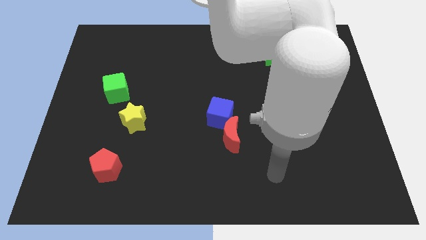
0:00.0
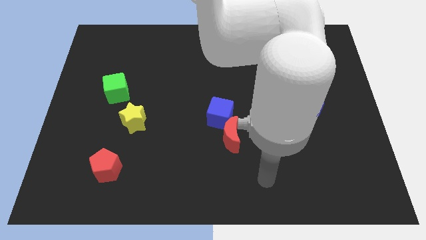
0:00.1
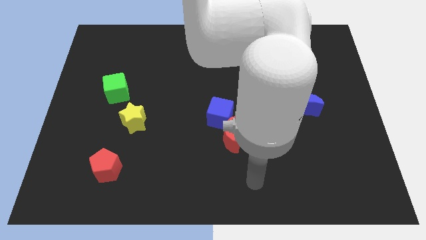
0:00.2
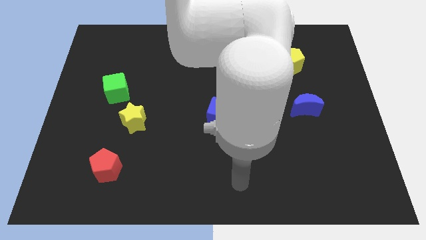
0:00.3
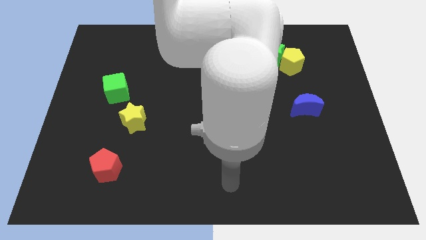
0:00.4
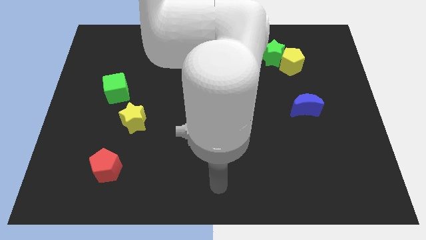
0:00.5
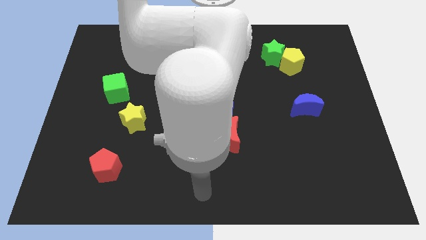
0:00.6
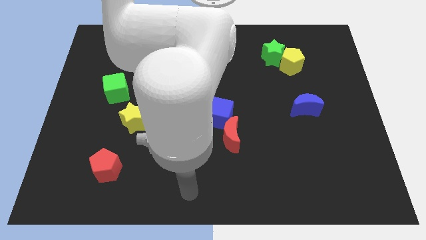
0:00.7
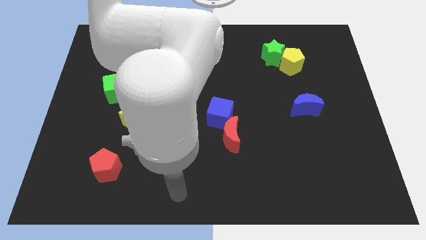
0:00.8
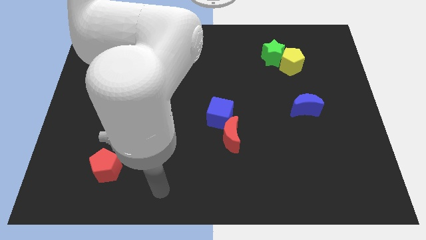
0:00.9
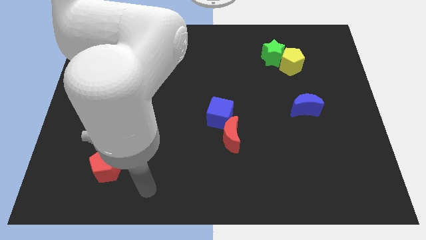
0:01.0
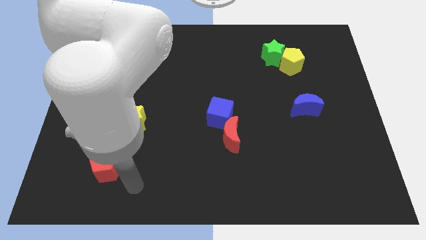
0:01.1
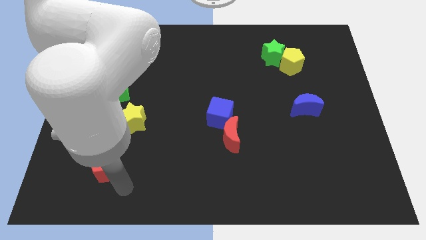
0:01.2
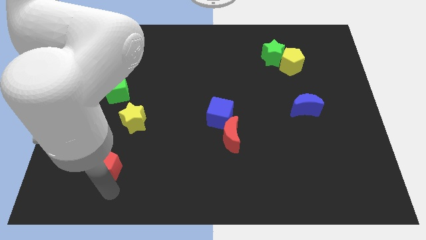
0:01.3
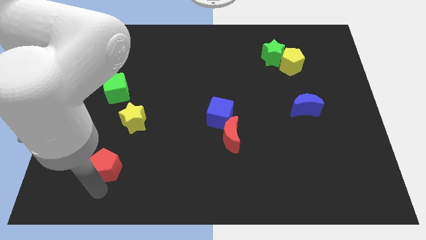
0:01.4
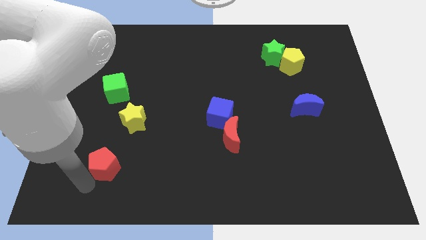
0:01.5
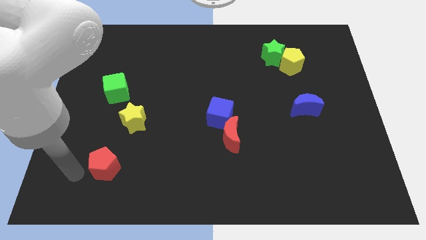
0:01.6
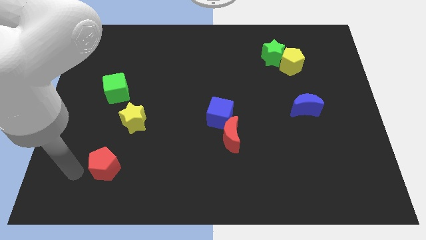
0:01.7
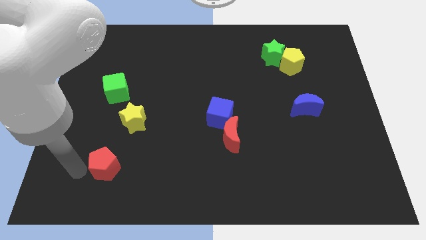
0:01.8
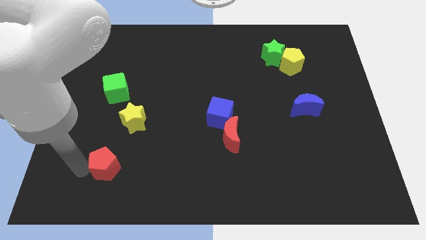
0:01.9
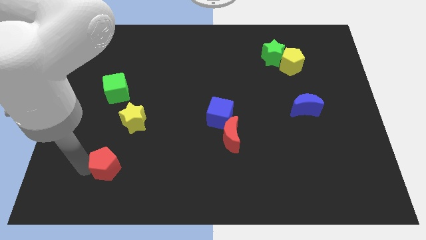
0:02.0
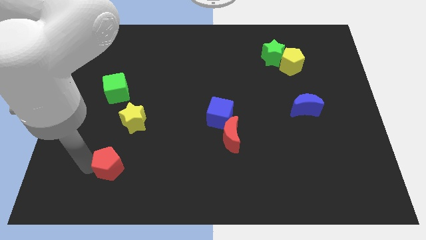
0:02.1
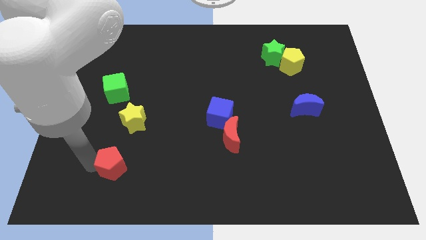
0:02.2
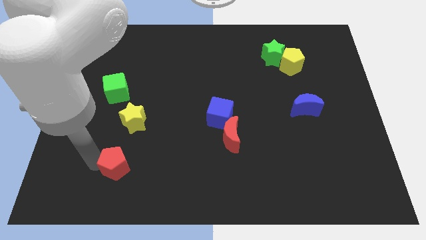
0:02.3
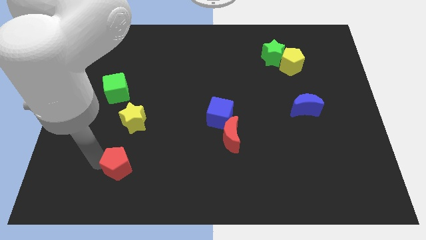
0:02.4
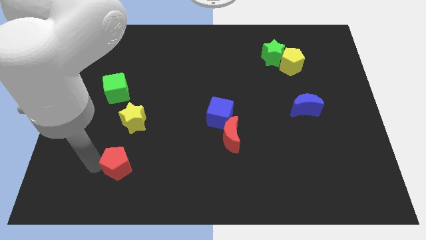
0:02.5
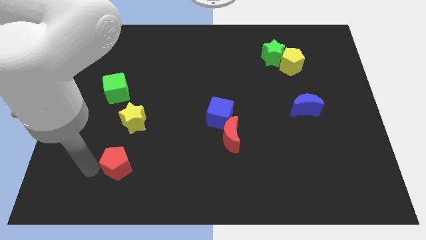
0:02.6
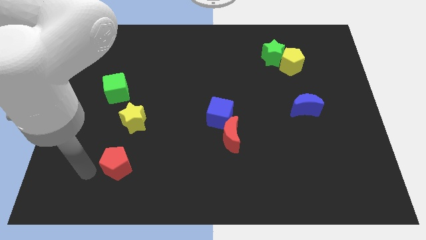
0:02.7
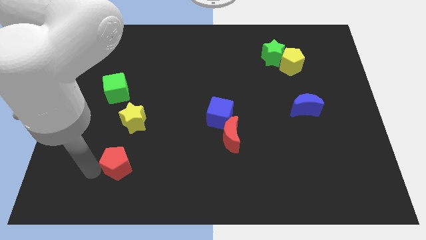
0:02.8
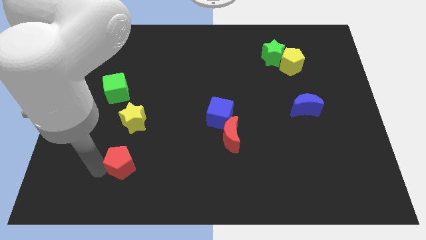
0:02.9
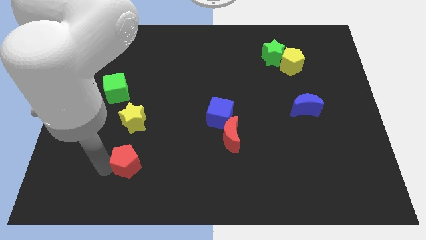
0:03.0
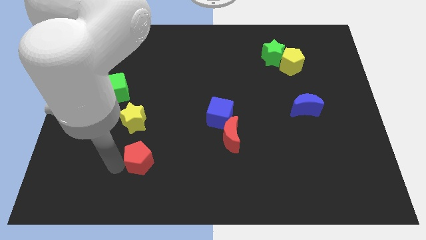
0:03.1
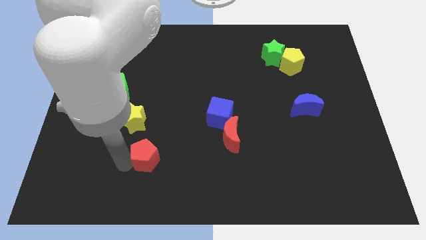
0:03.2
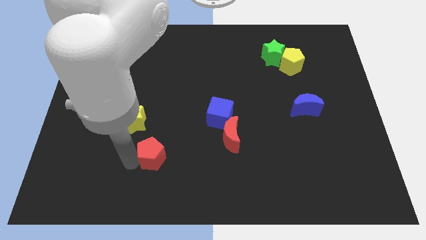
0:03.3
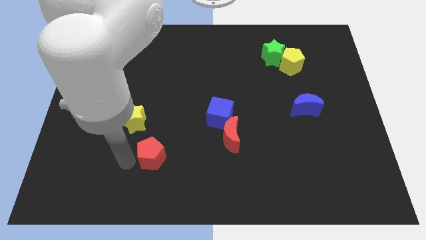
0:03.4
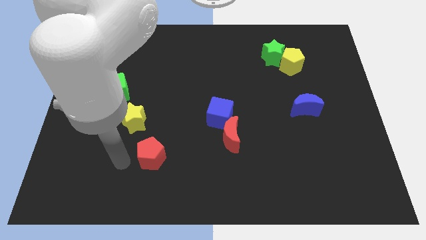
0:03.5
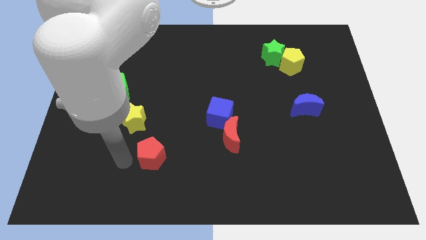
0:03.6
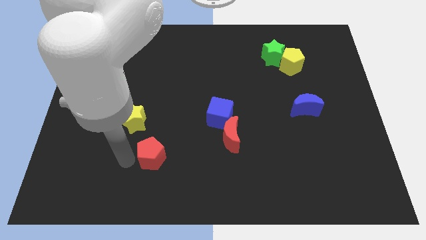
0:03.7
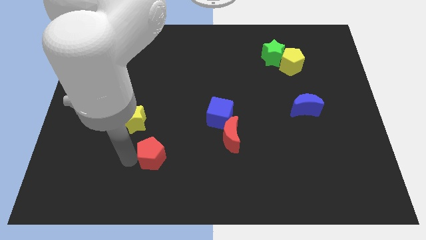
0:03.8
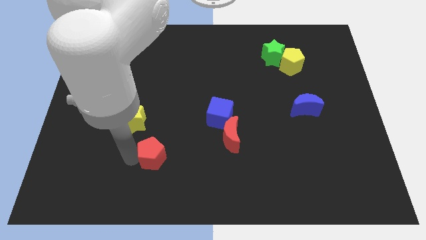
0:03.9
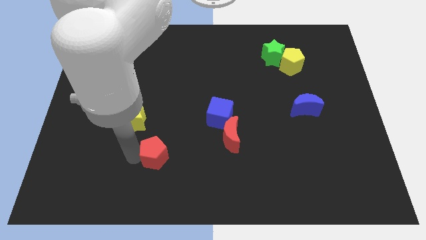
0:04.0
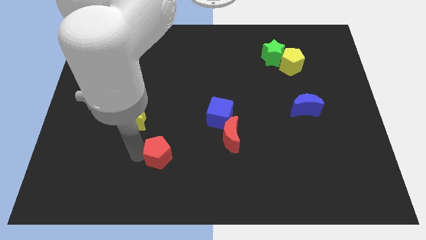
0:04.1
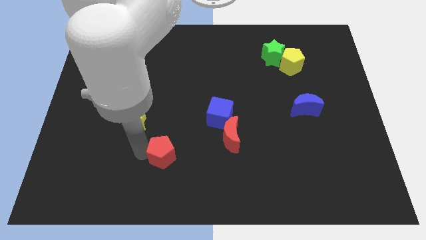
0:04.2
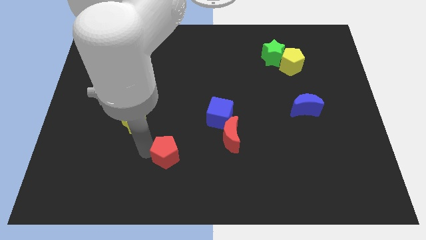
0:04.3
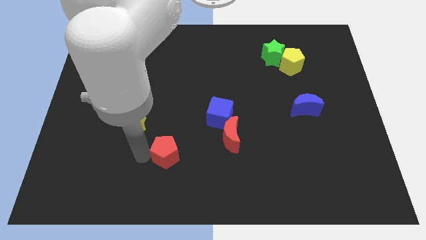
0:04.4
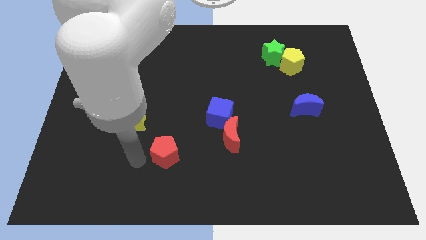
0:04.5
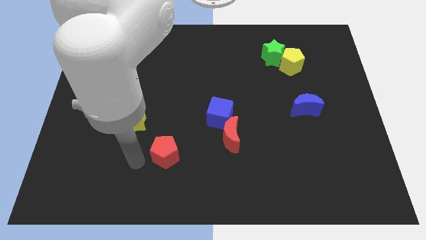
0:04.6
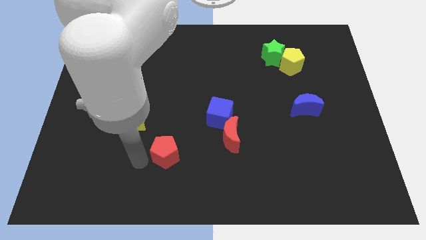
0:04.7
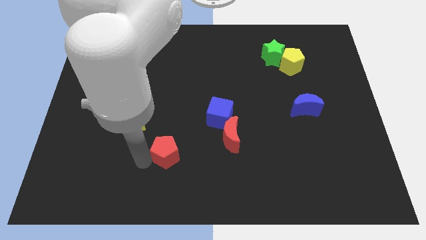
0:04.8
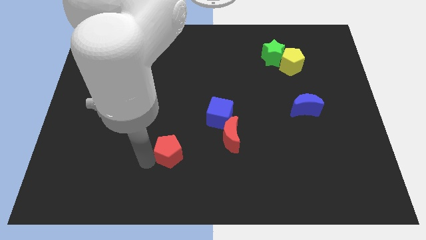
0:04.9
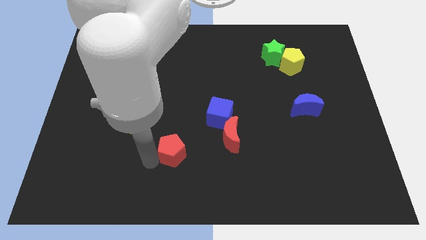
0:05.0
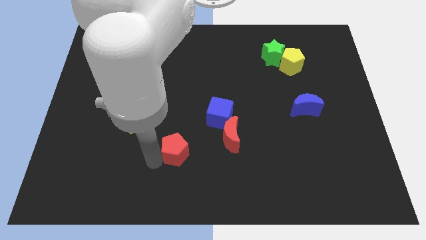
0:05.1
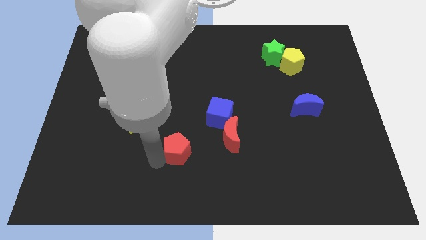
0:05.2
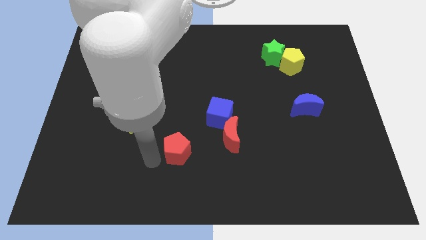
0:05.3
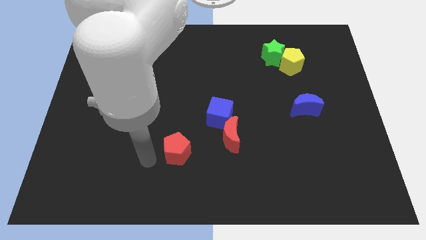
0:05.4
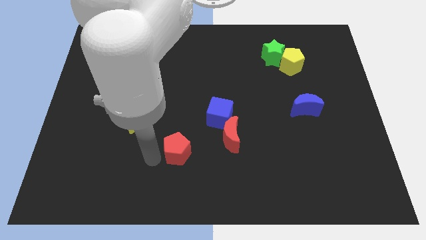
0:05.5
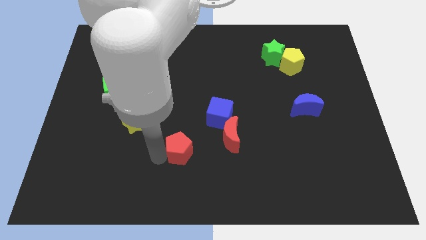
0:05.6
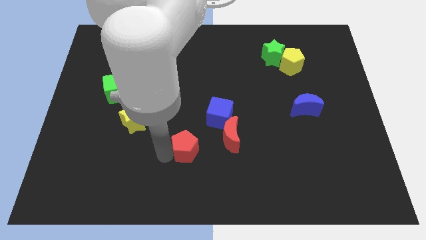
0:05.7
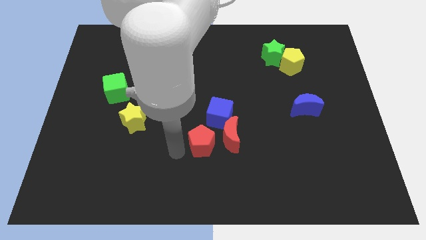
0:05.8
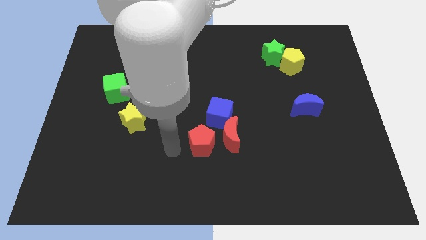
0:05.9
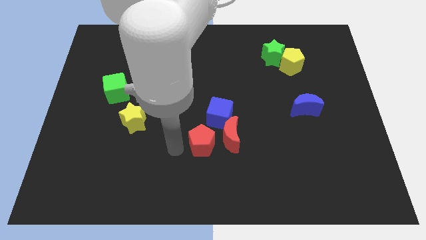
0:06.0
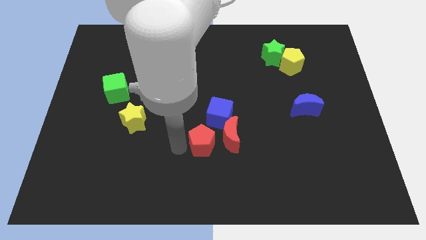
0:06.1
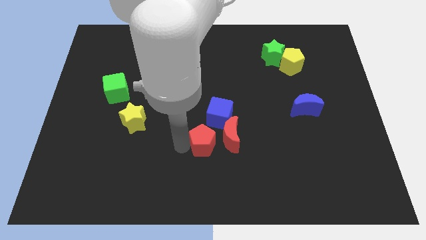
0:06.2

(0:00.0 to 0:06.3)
push the red pentagon next to the red moon

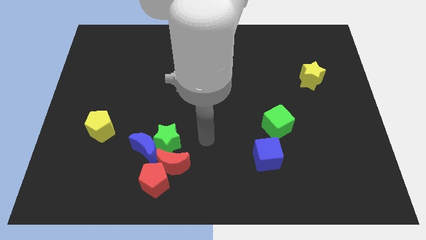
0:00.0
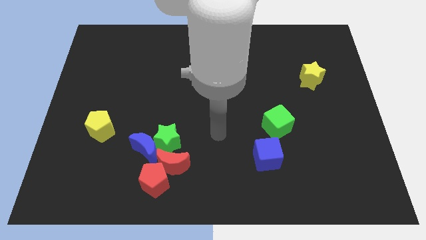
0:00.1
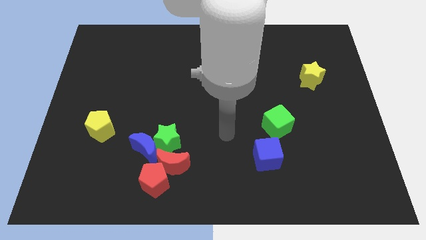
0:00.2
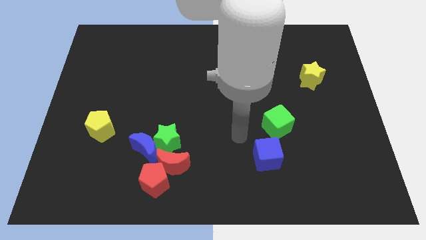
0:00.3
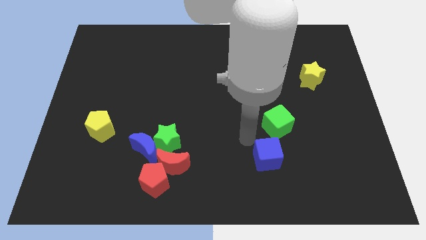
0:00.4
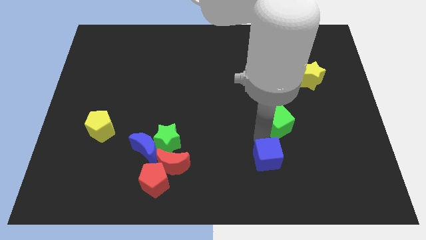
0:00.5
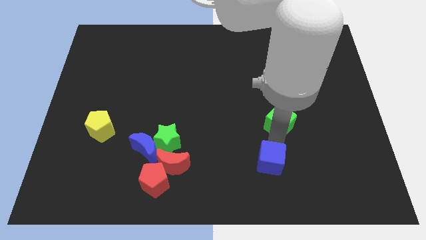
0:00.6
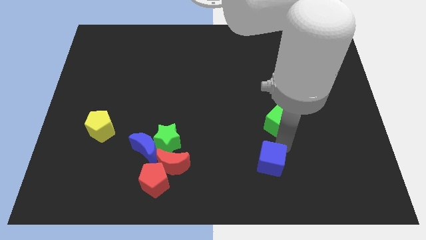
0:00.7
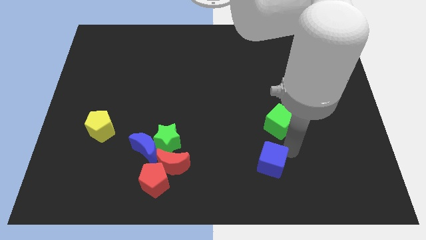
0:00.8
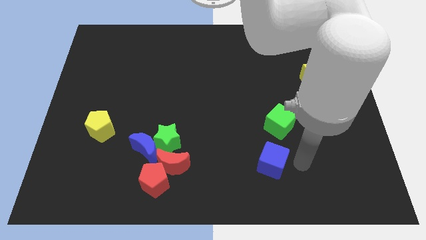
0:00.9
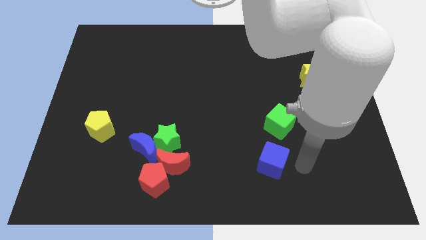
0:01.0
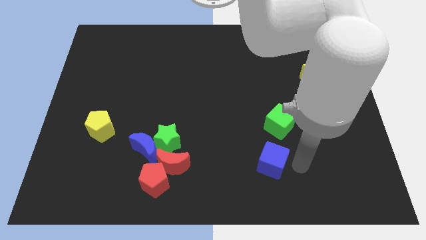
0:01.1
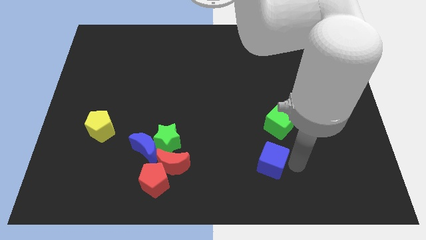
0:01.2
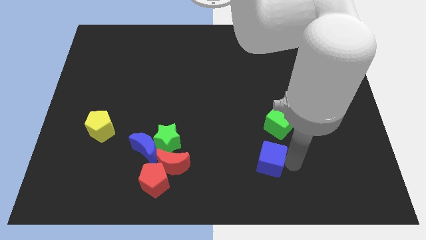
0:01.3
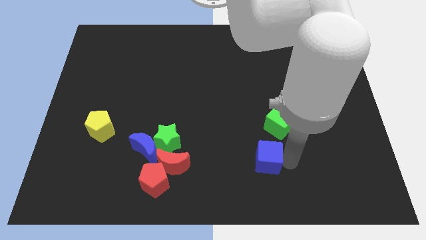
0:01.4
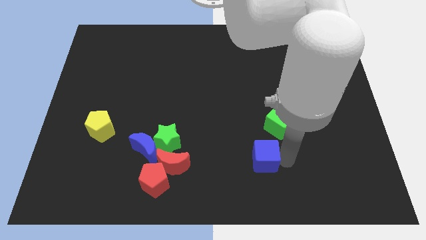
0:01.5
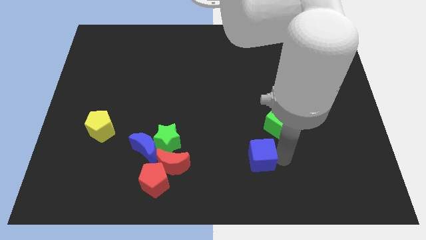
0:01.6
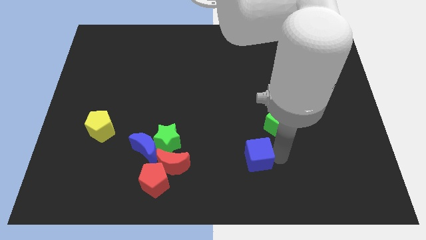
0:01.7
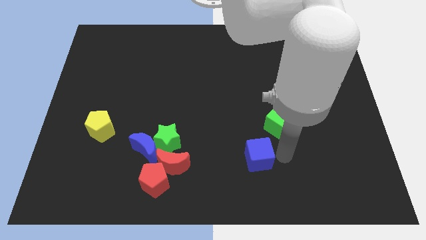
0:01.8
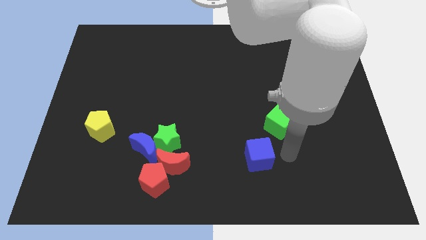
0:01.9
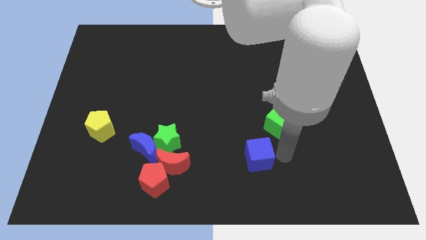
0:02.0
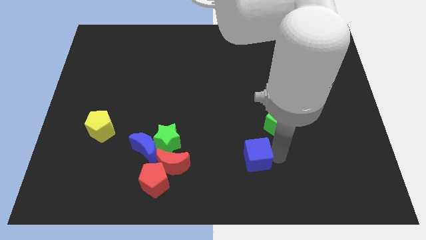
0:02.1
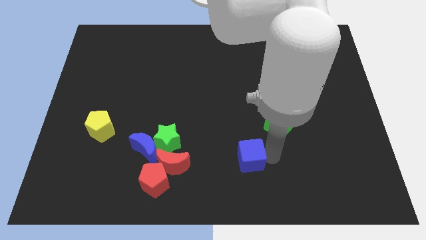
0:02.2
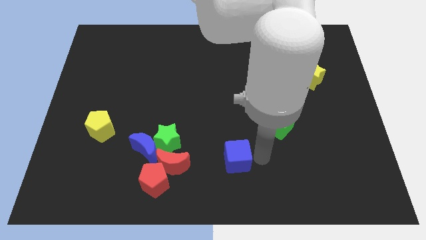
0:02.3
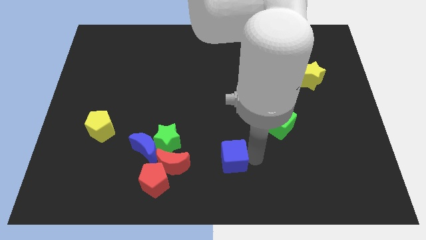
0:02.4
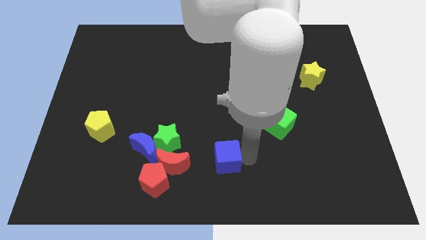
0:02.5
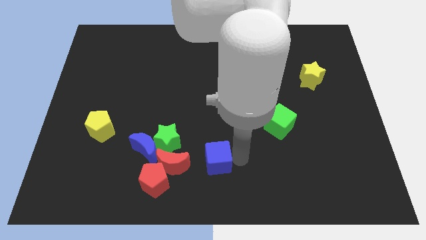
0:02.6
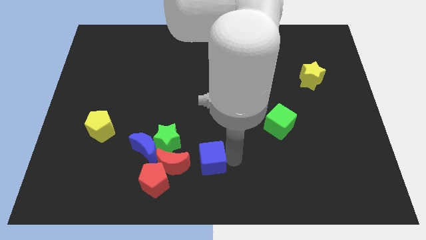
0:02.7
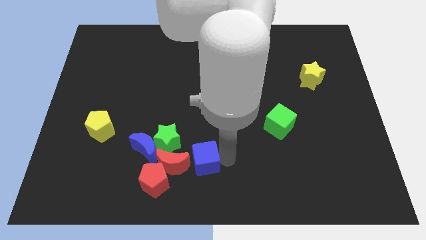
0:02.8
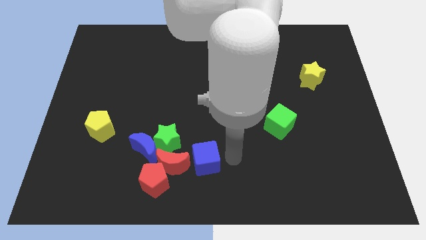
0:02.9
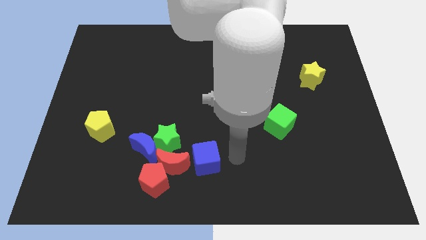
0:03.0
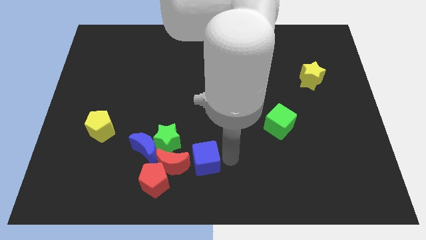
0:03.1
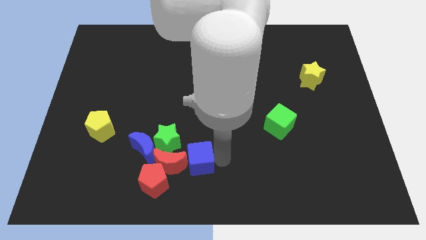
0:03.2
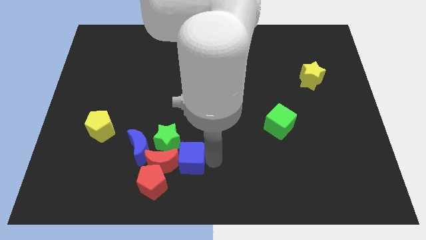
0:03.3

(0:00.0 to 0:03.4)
put the blue cube next to the red moon
